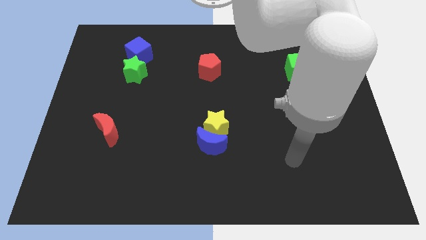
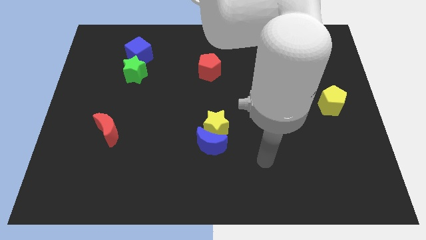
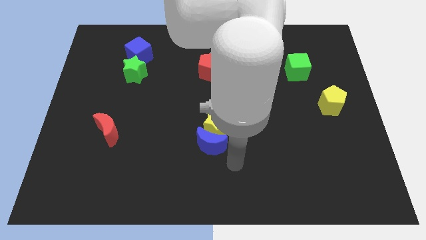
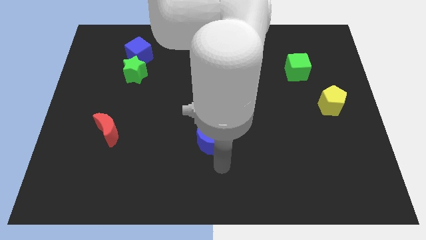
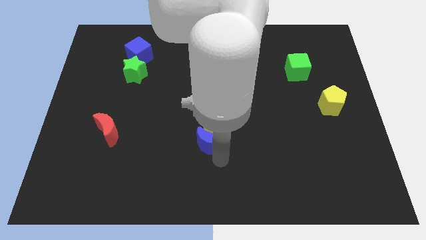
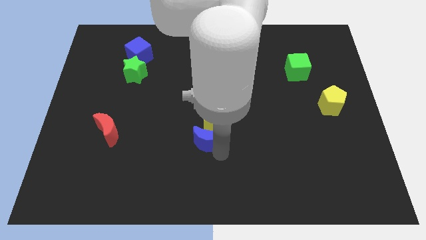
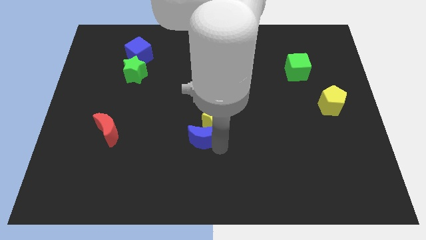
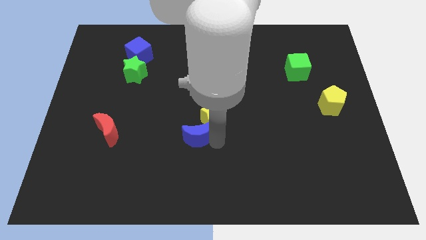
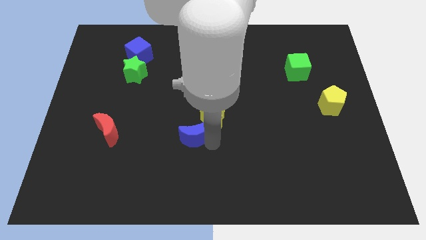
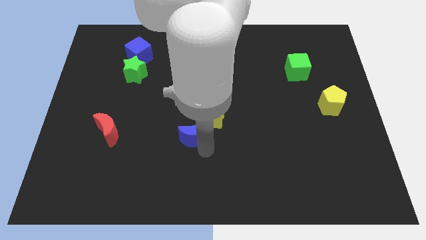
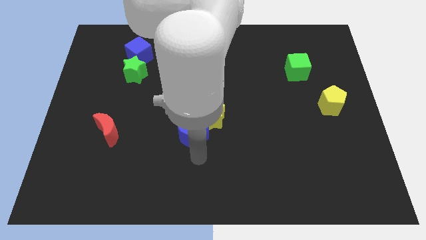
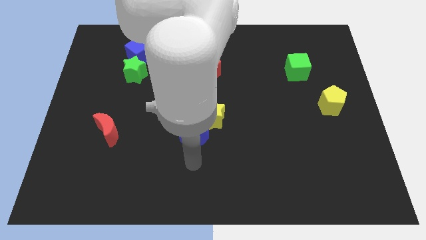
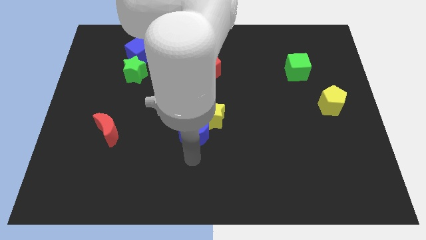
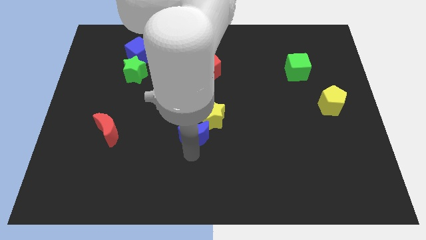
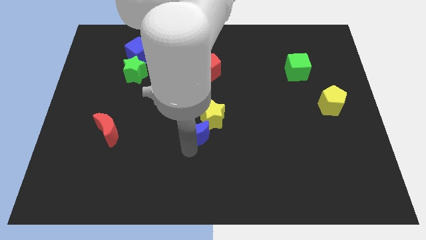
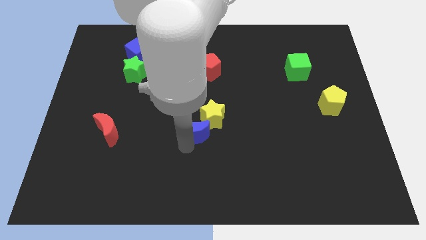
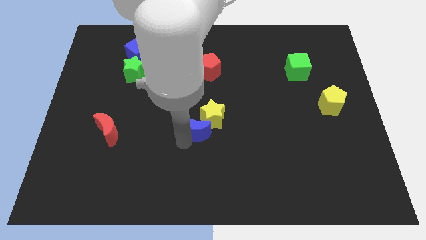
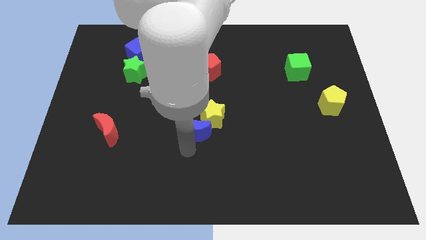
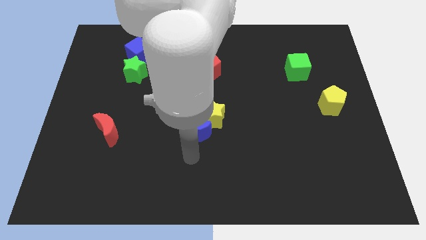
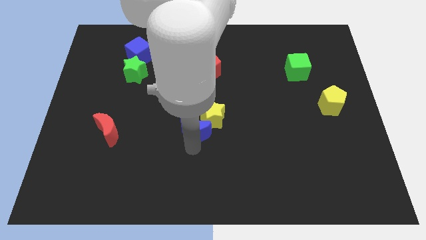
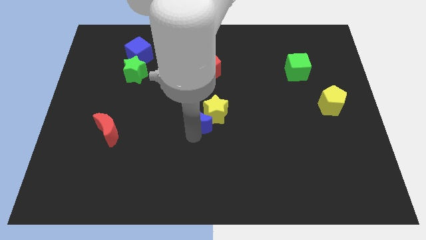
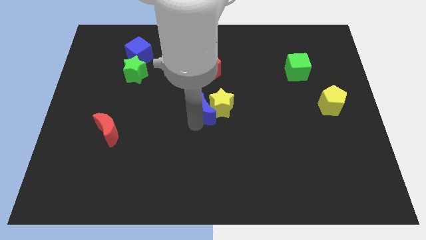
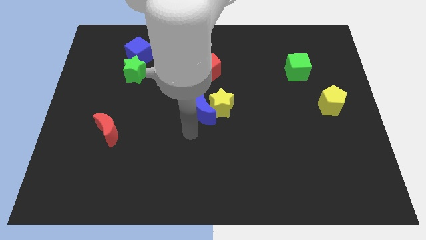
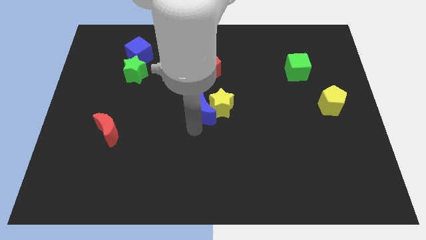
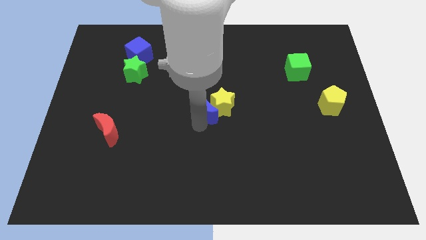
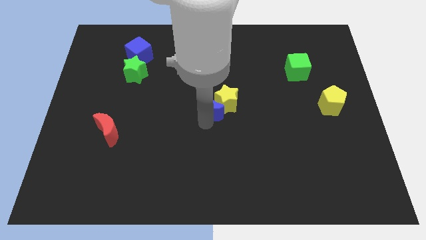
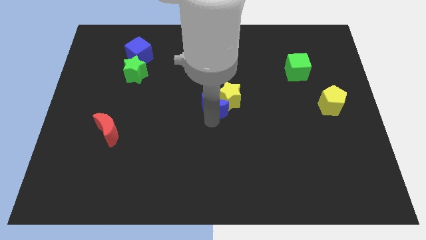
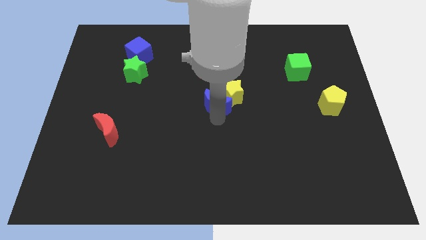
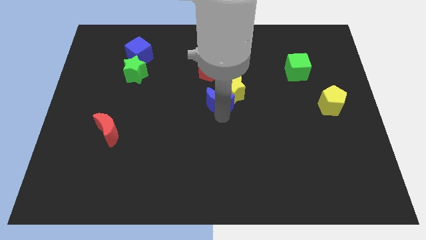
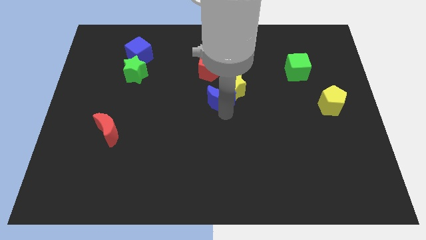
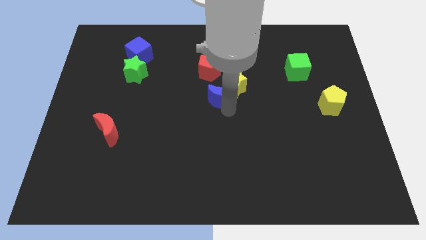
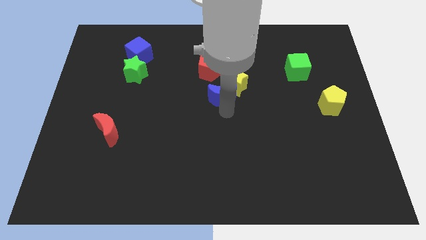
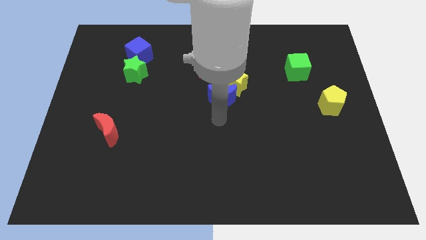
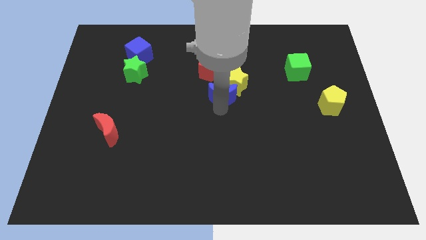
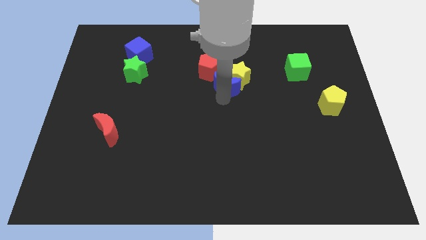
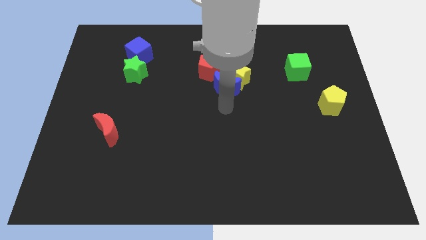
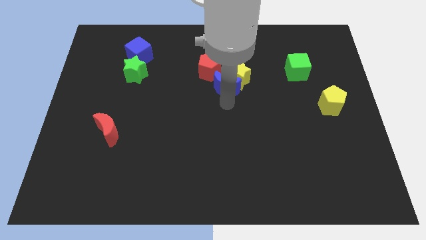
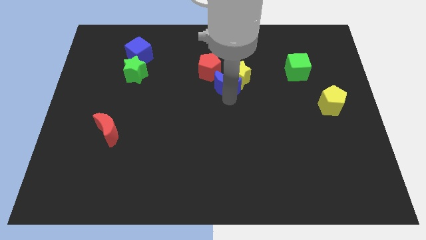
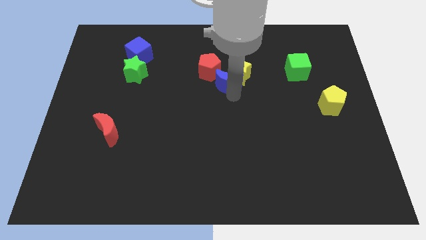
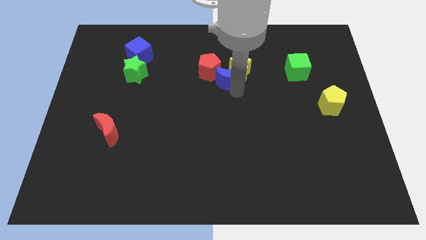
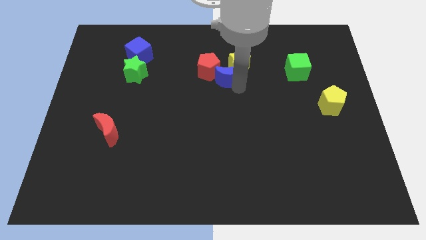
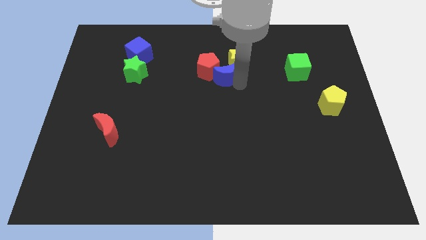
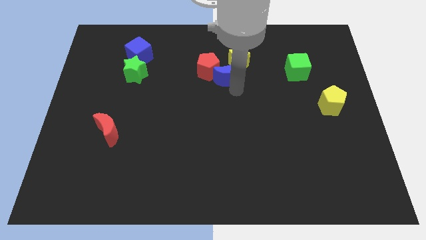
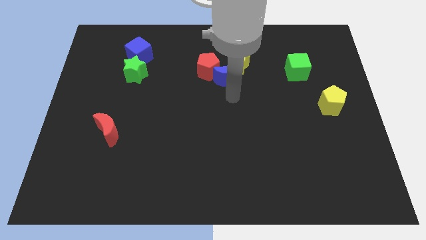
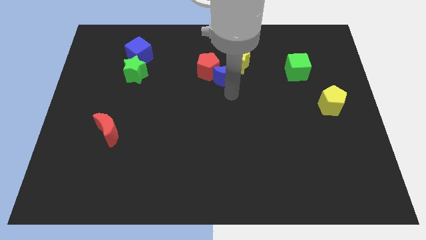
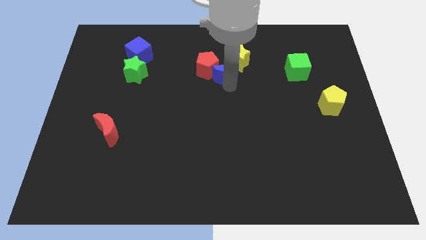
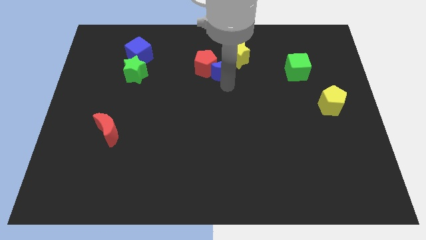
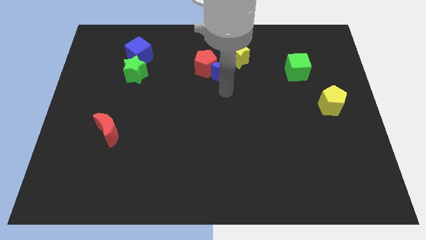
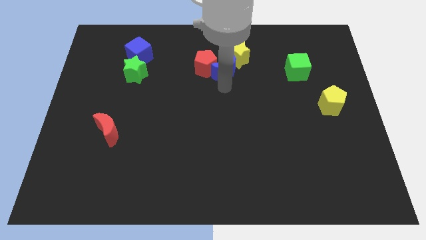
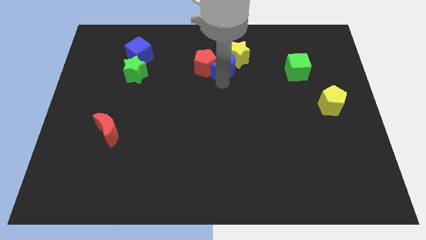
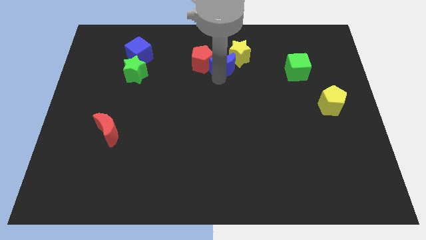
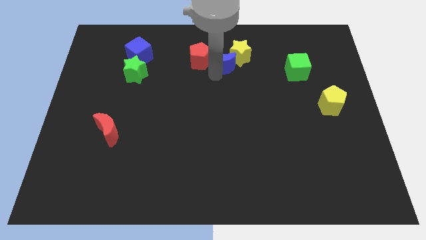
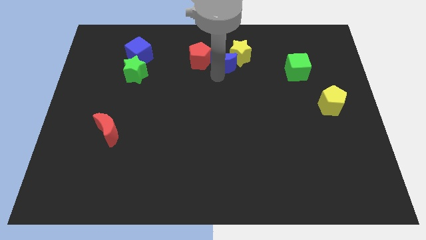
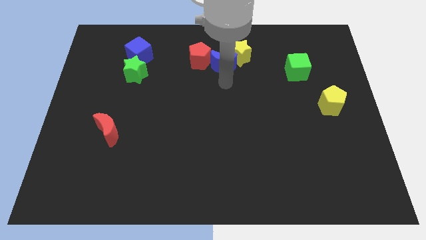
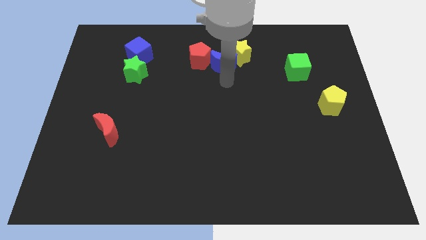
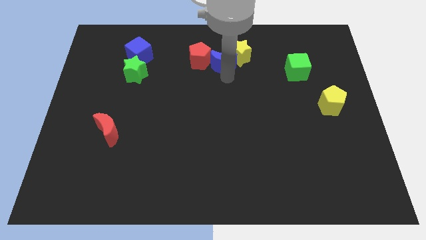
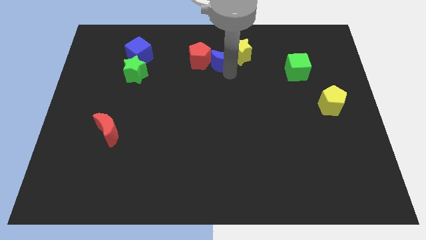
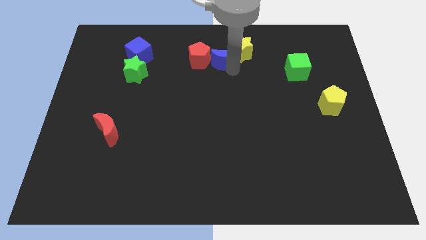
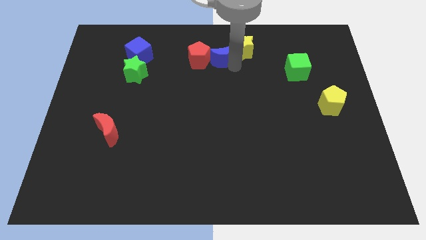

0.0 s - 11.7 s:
move the blue moon to the top right of the red pentagon

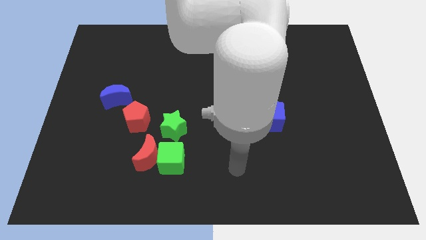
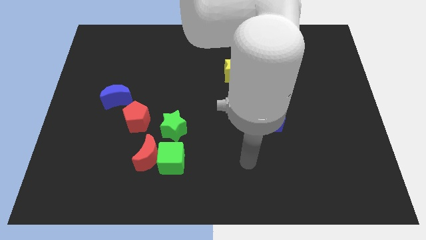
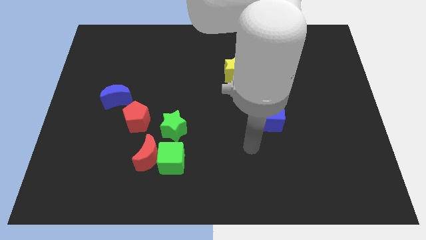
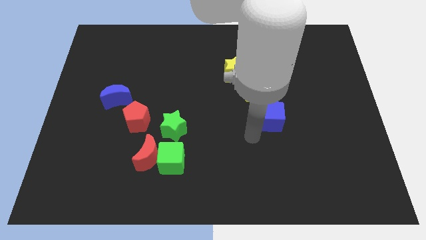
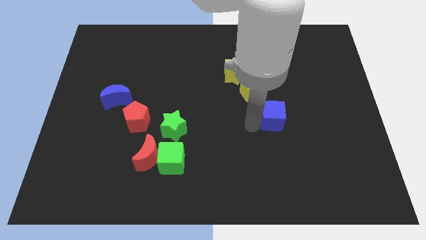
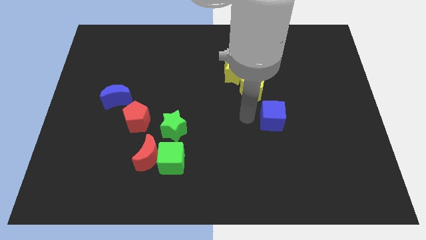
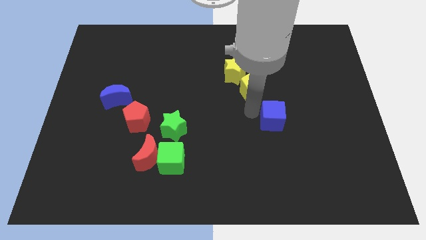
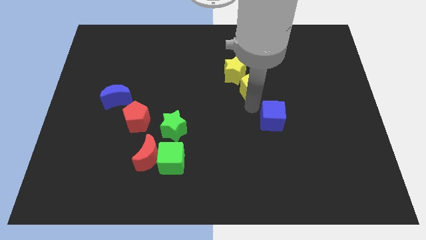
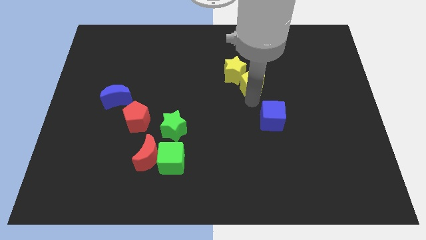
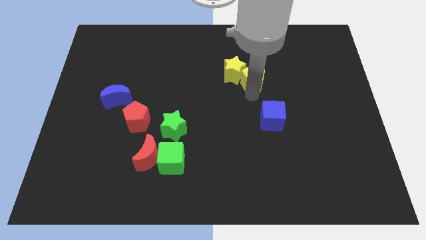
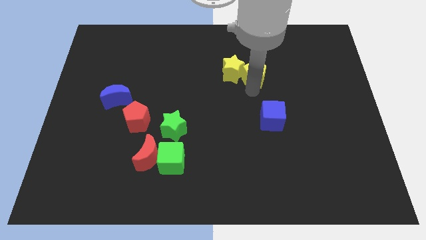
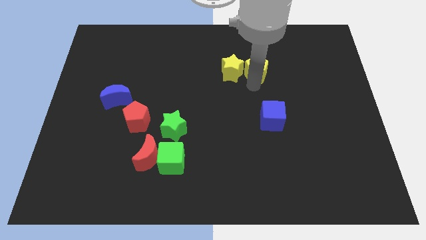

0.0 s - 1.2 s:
move the yellow pentagon to the top right of the yellow star
